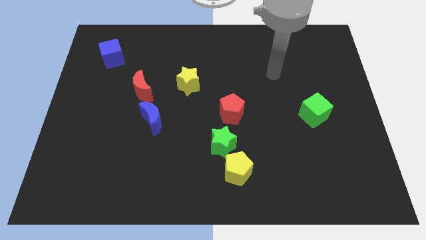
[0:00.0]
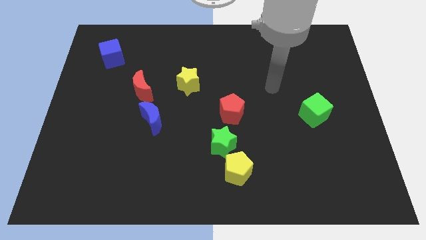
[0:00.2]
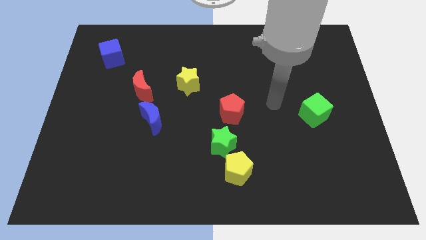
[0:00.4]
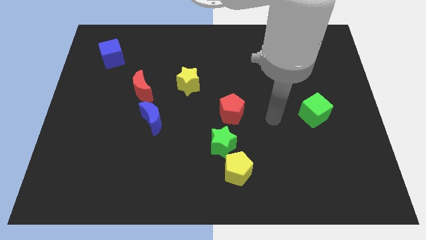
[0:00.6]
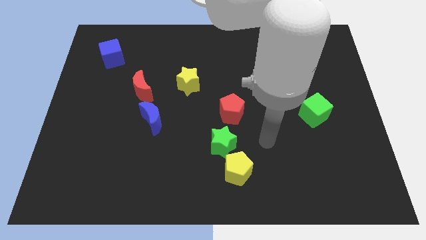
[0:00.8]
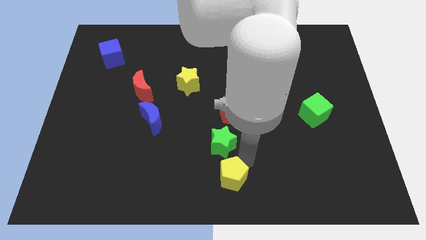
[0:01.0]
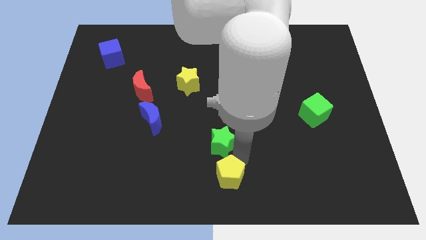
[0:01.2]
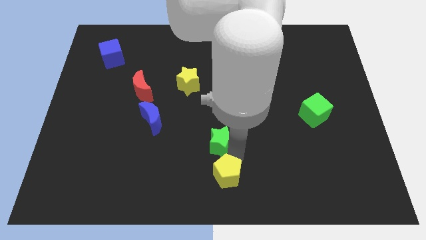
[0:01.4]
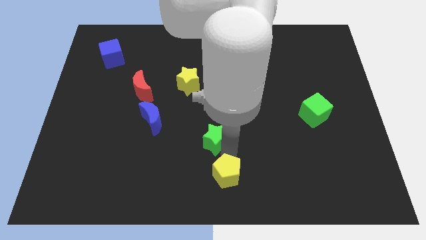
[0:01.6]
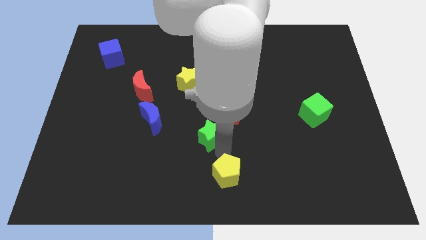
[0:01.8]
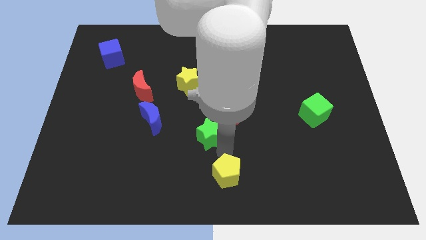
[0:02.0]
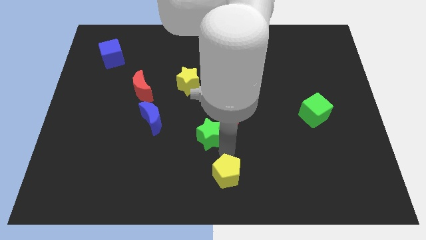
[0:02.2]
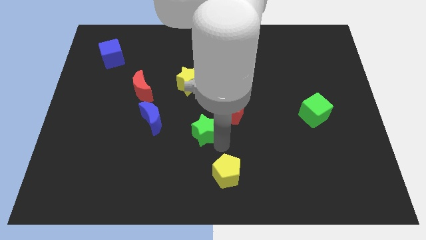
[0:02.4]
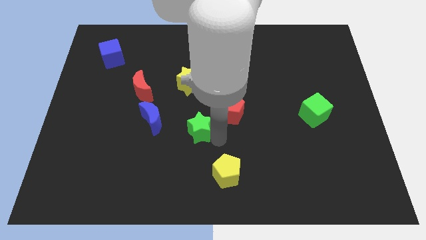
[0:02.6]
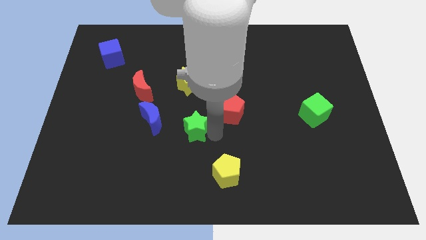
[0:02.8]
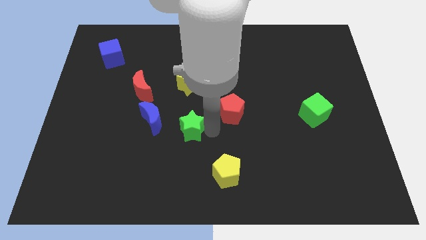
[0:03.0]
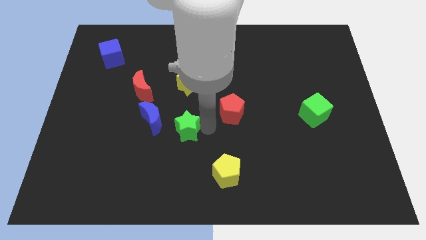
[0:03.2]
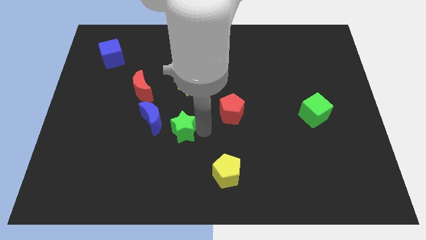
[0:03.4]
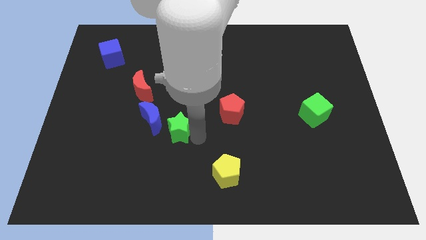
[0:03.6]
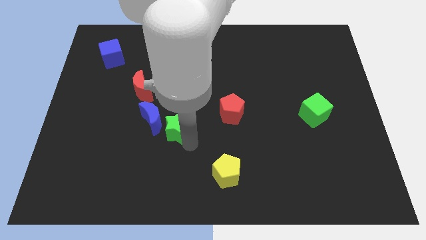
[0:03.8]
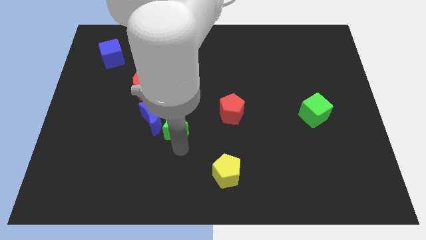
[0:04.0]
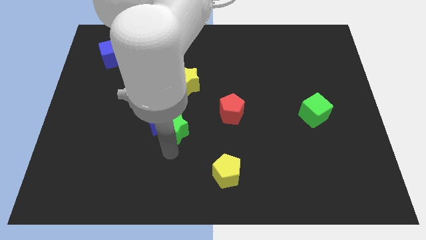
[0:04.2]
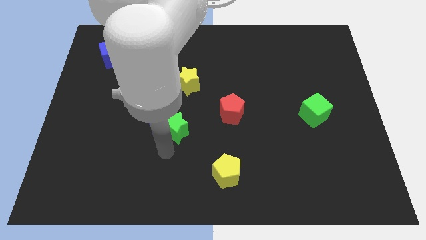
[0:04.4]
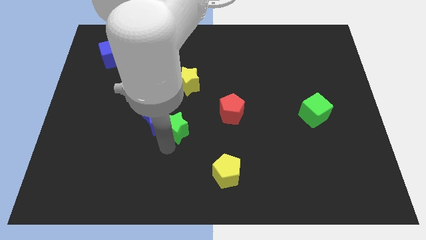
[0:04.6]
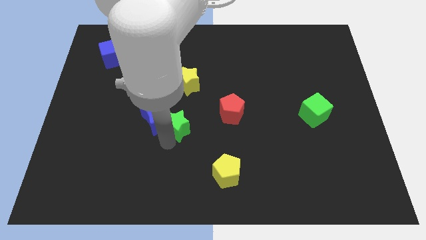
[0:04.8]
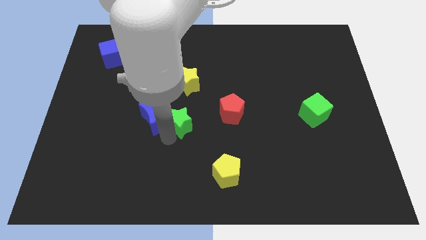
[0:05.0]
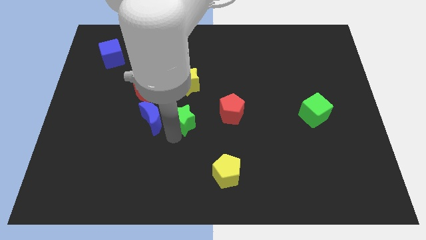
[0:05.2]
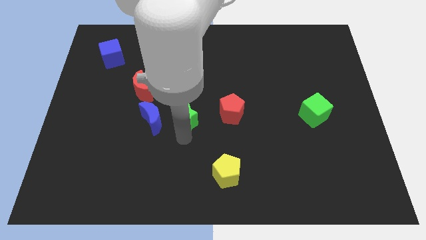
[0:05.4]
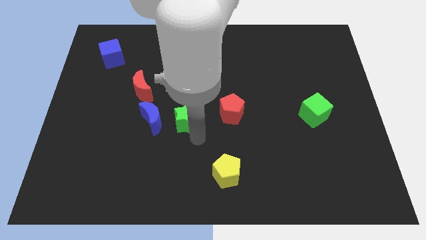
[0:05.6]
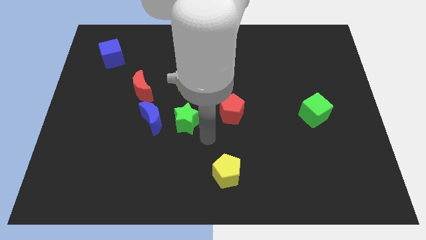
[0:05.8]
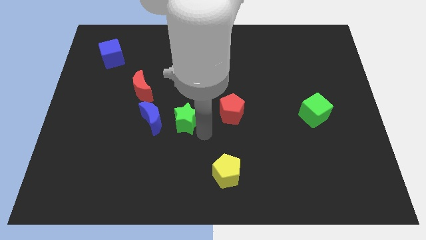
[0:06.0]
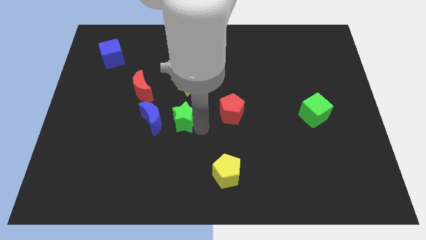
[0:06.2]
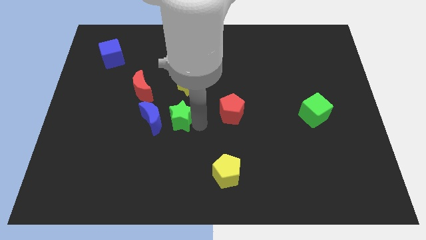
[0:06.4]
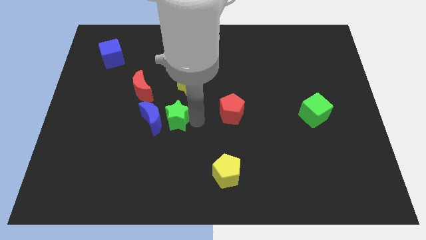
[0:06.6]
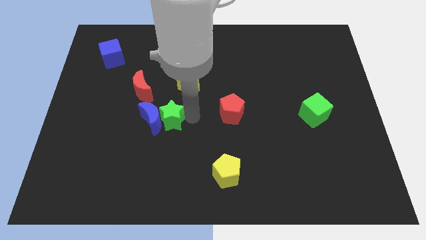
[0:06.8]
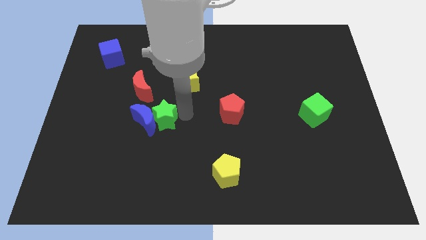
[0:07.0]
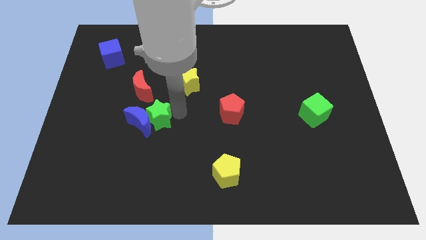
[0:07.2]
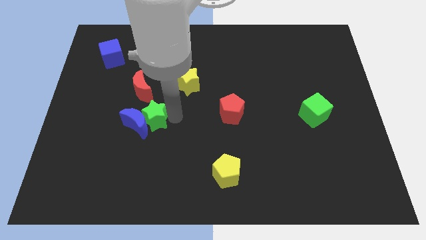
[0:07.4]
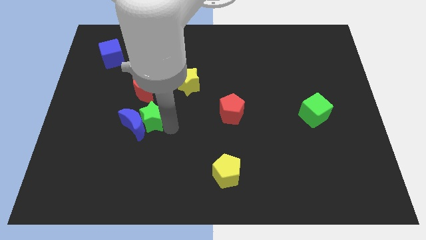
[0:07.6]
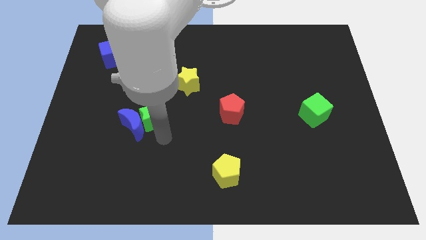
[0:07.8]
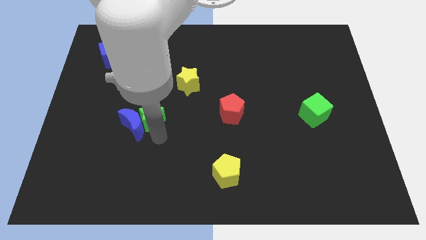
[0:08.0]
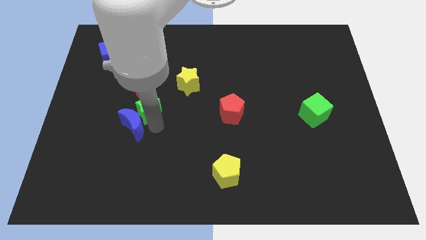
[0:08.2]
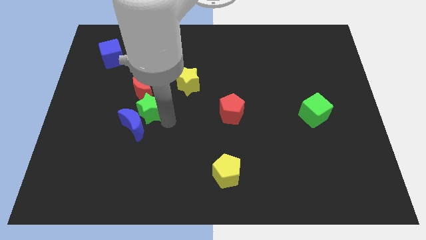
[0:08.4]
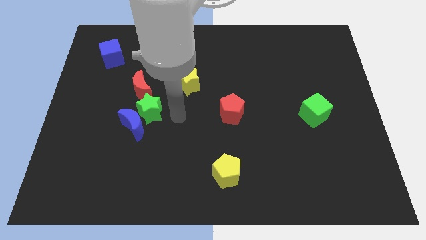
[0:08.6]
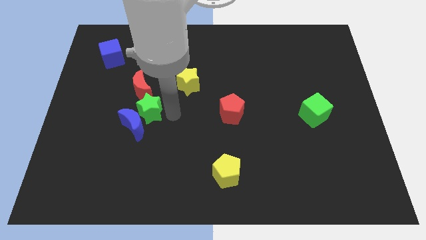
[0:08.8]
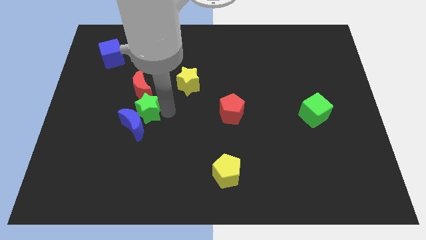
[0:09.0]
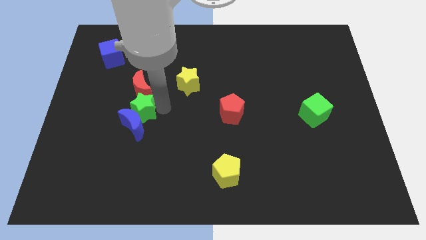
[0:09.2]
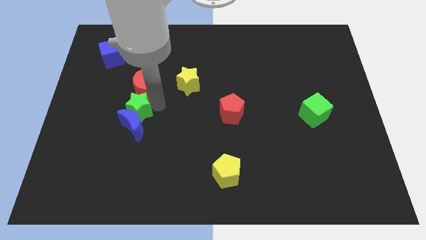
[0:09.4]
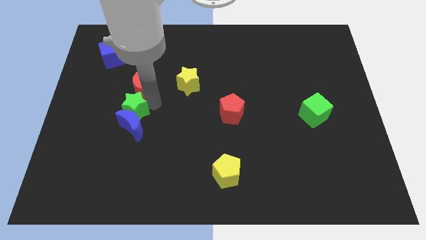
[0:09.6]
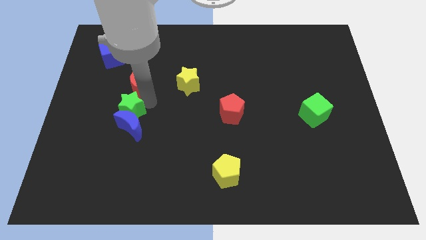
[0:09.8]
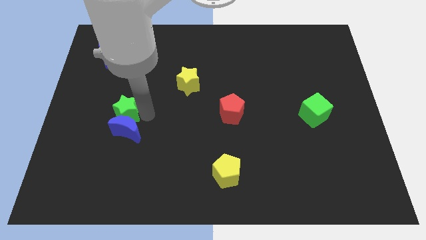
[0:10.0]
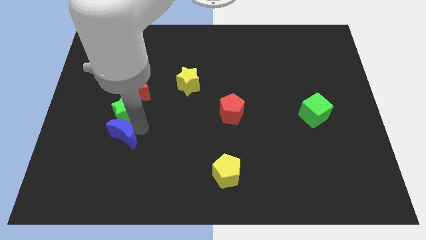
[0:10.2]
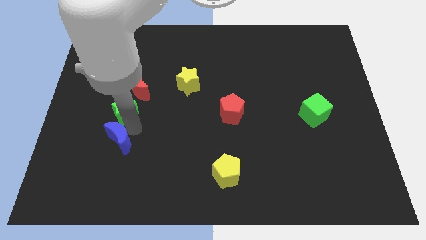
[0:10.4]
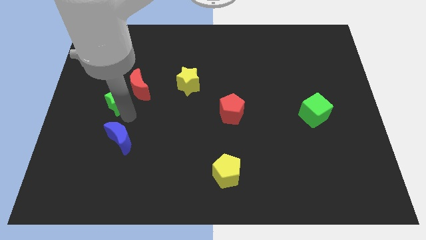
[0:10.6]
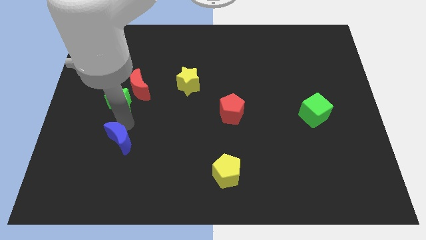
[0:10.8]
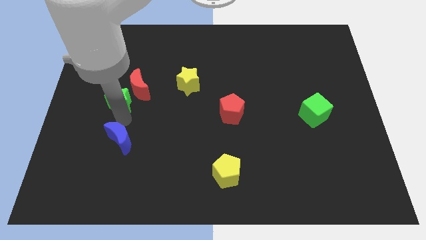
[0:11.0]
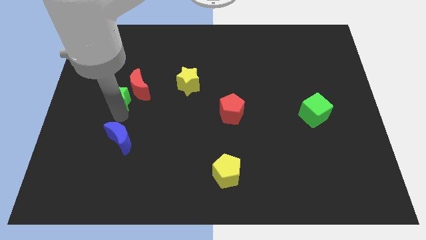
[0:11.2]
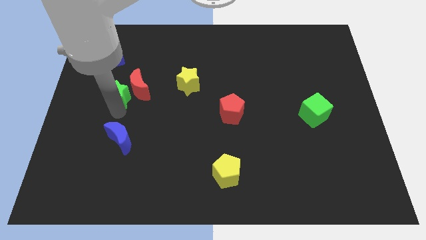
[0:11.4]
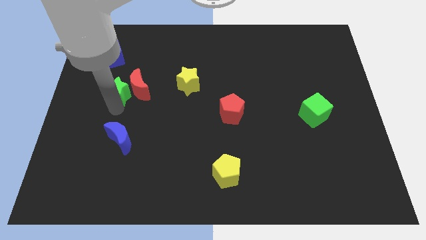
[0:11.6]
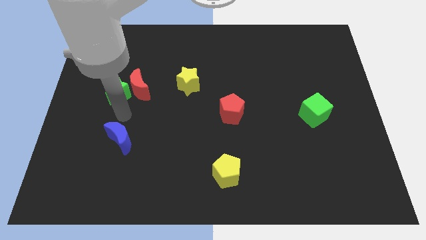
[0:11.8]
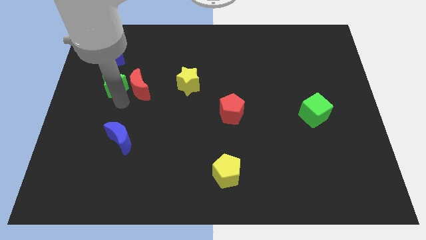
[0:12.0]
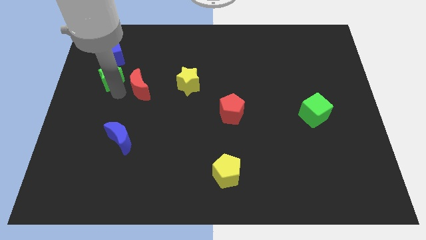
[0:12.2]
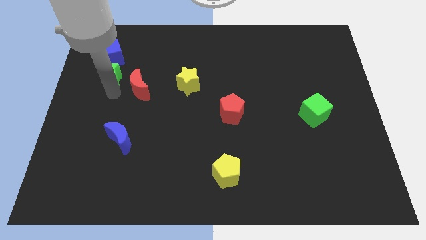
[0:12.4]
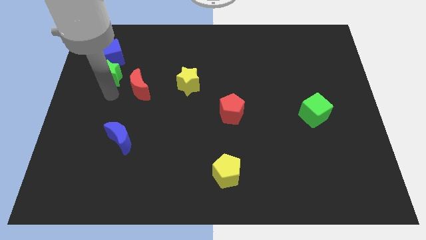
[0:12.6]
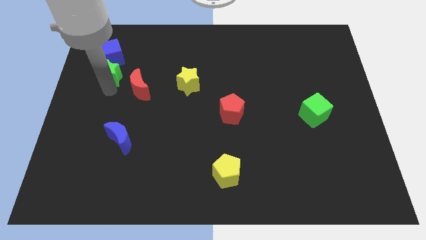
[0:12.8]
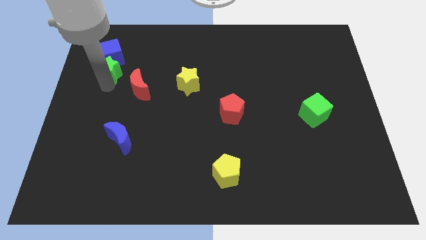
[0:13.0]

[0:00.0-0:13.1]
slide the green star towards the blue cube

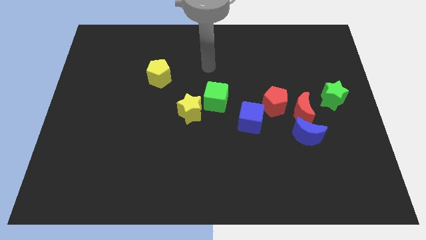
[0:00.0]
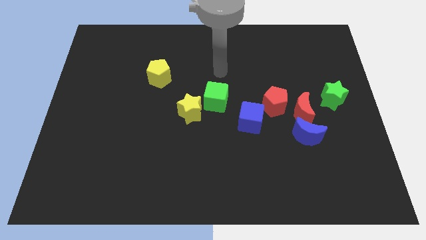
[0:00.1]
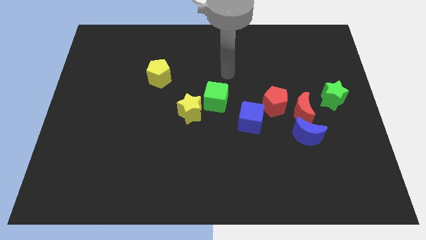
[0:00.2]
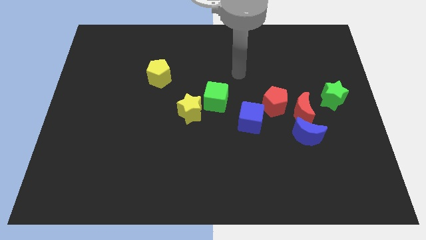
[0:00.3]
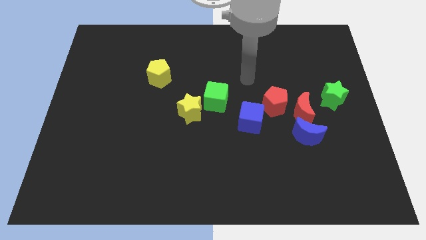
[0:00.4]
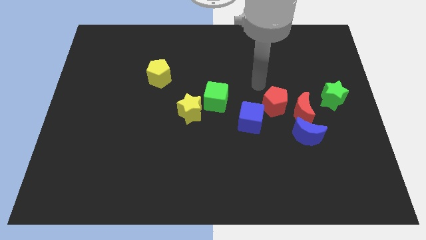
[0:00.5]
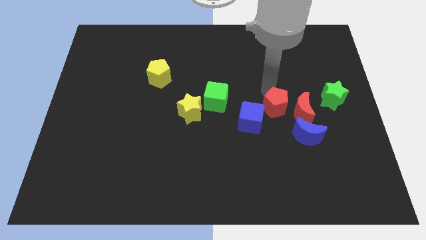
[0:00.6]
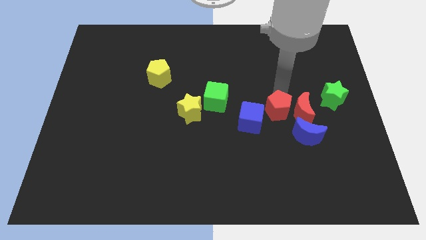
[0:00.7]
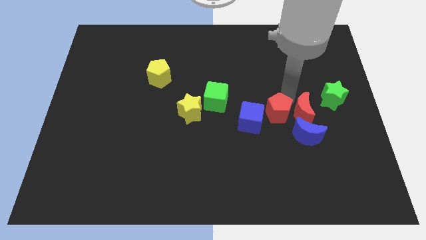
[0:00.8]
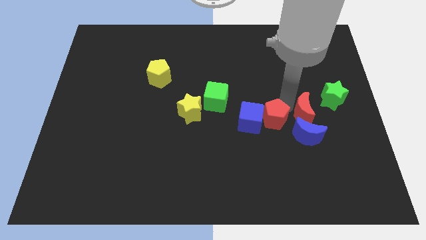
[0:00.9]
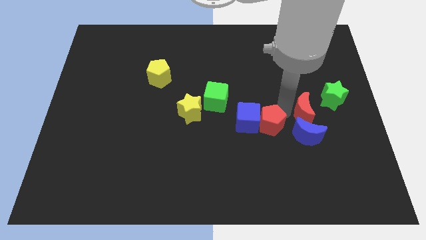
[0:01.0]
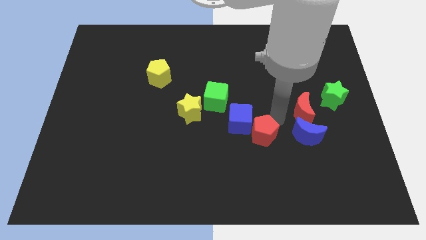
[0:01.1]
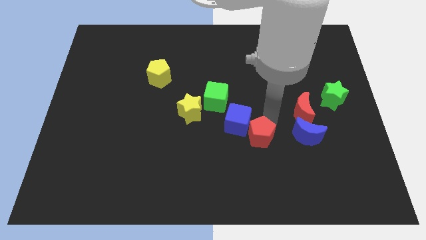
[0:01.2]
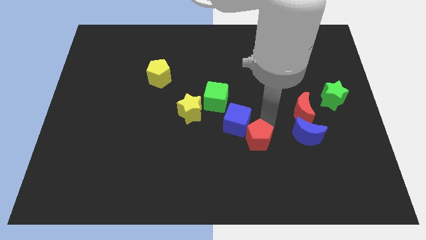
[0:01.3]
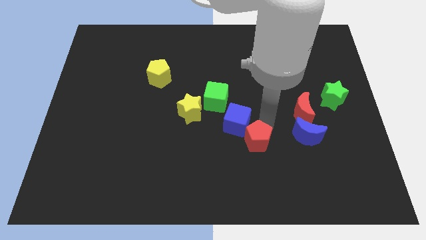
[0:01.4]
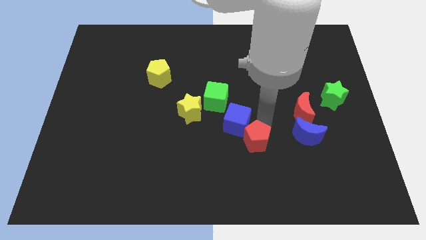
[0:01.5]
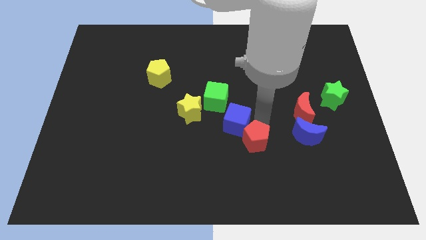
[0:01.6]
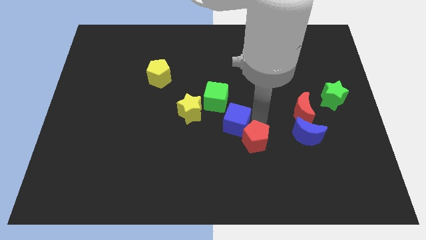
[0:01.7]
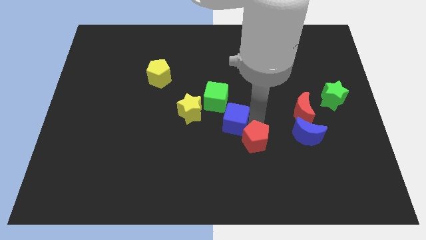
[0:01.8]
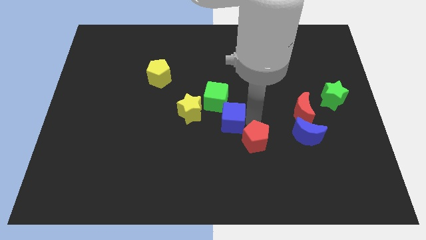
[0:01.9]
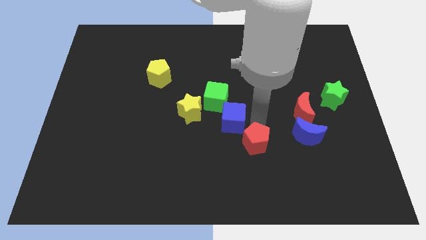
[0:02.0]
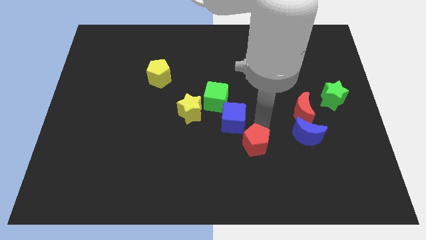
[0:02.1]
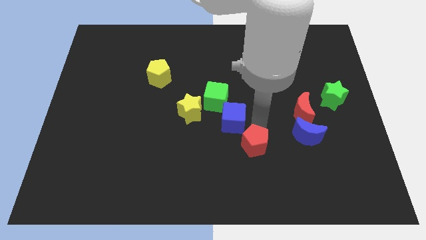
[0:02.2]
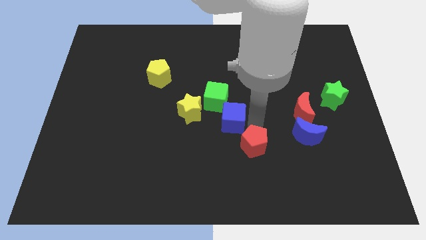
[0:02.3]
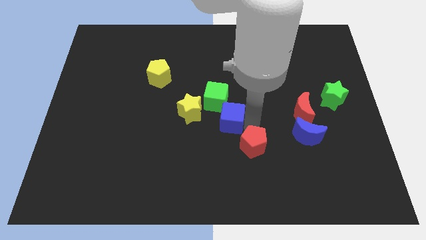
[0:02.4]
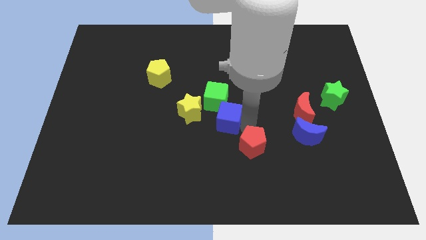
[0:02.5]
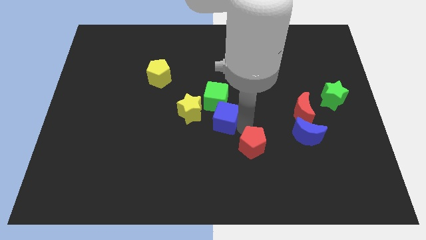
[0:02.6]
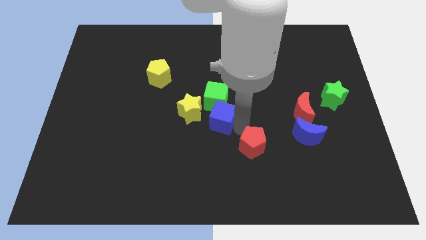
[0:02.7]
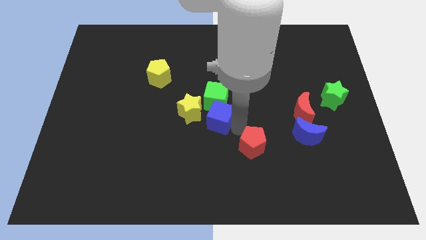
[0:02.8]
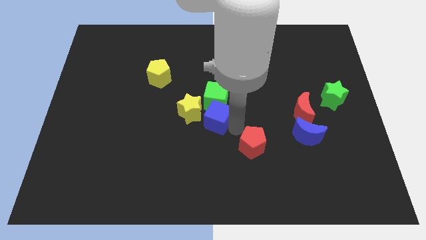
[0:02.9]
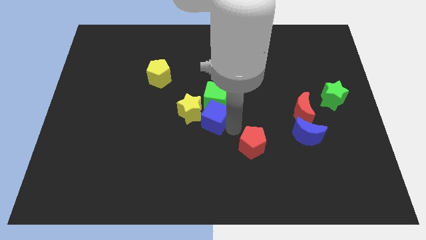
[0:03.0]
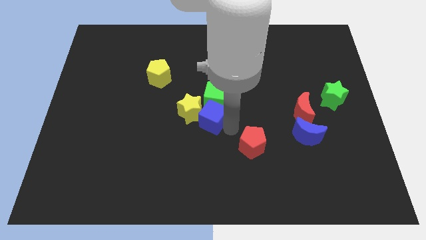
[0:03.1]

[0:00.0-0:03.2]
slide the blue cube towards the yellow star
